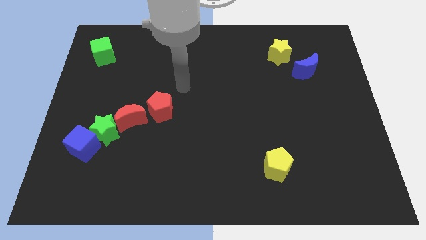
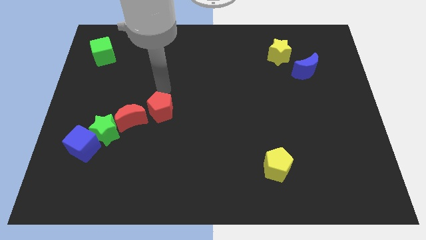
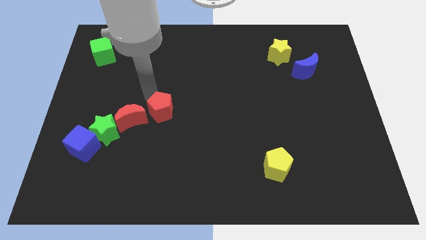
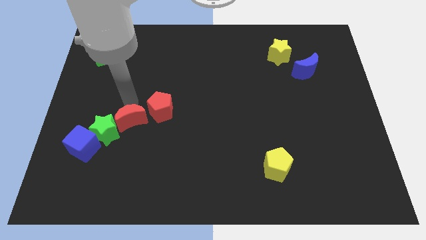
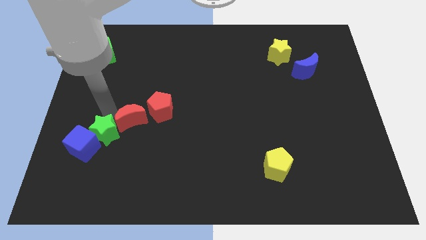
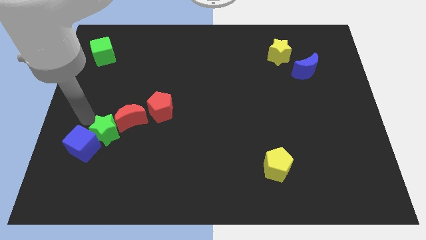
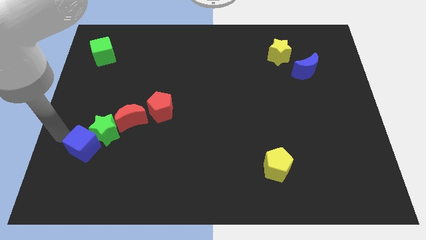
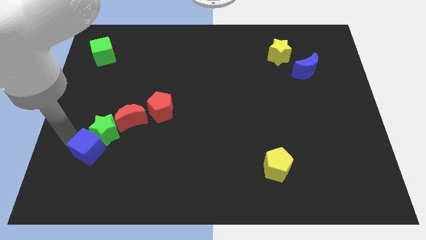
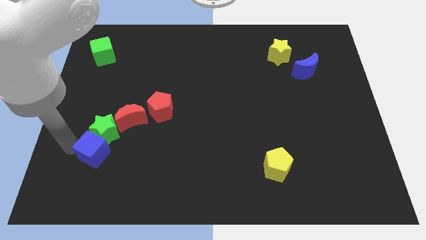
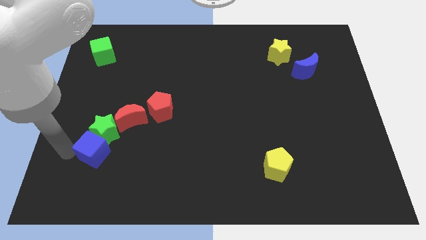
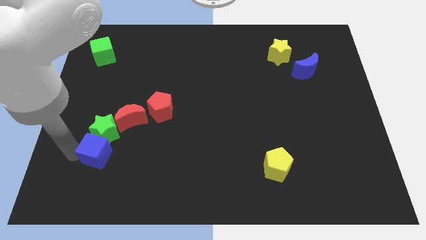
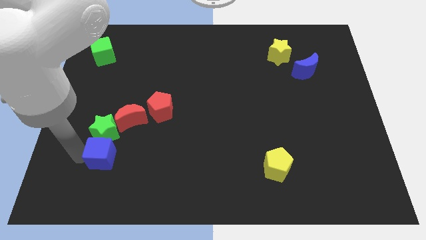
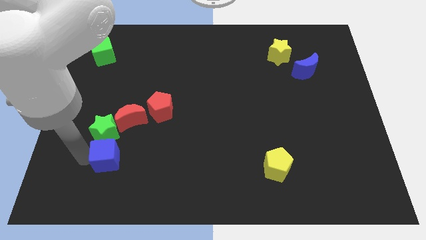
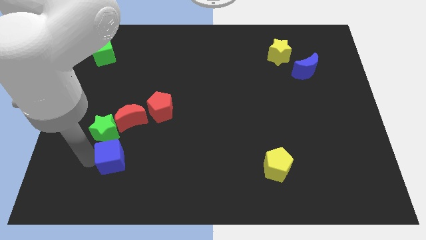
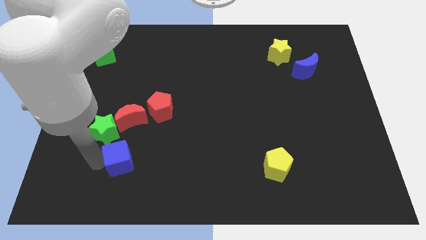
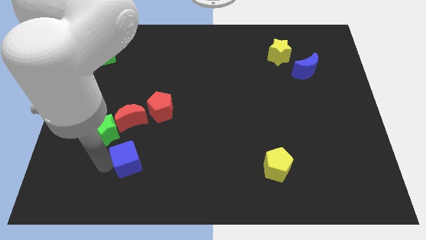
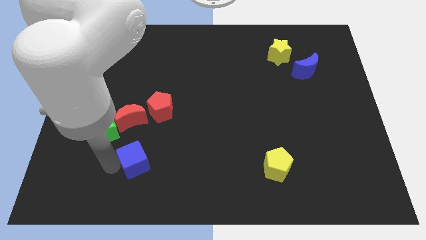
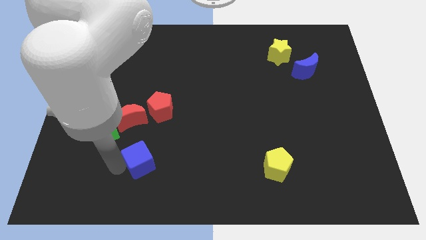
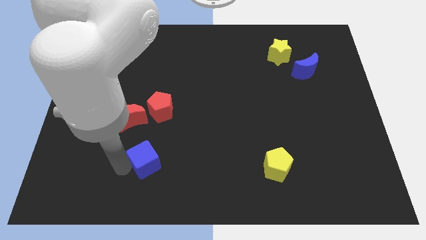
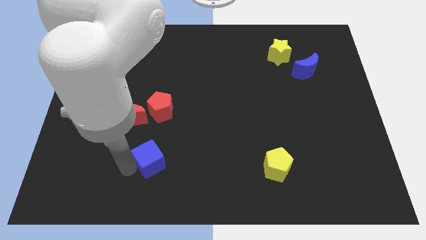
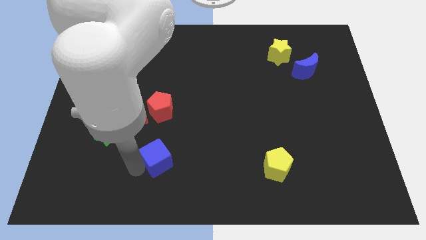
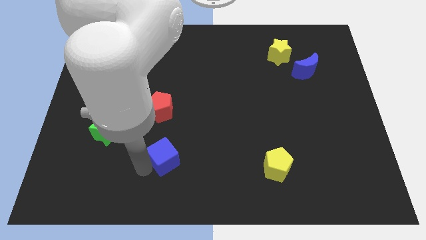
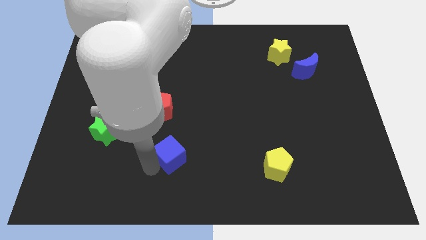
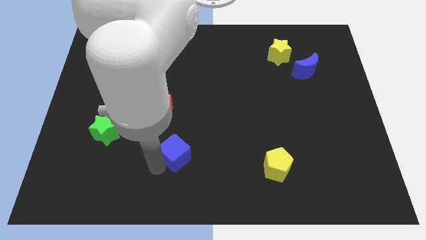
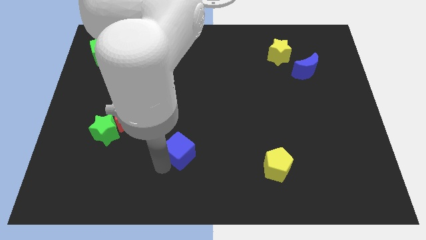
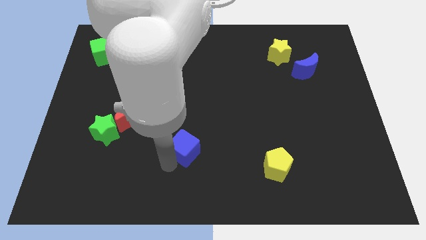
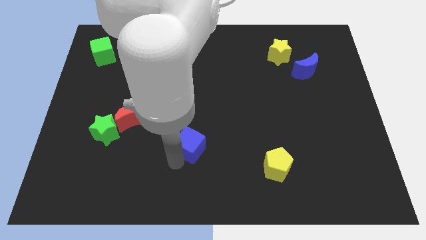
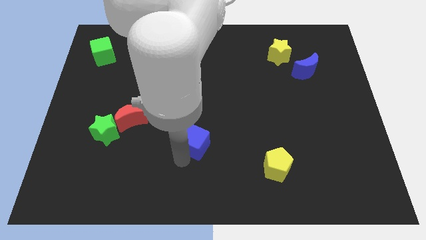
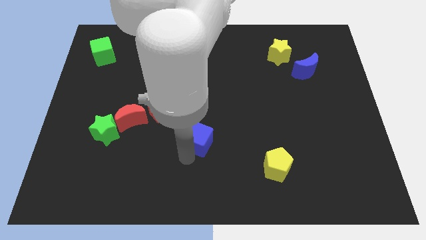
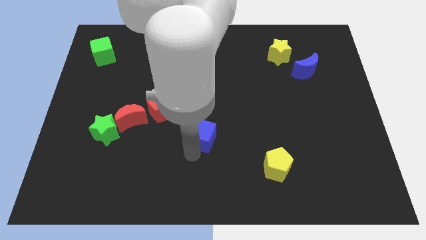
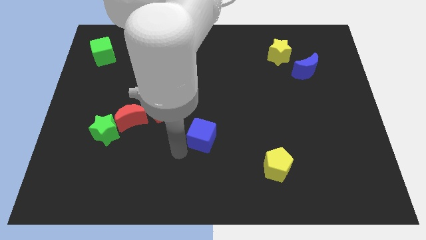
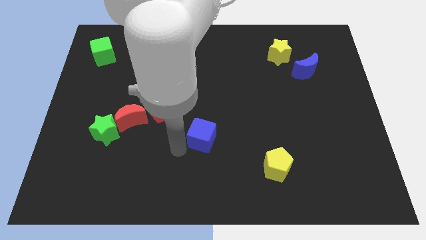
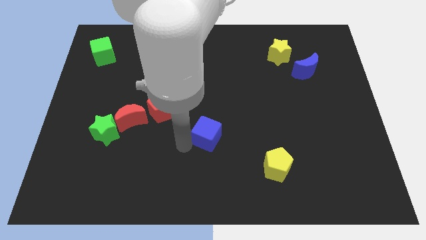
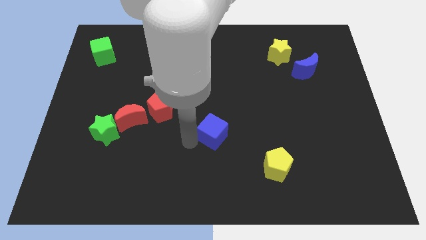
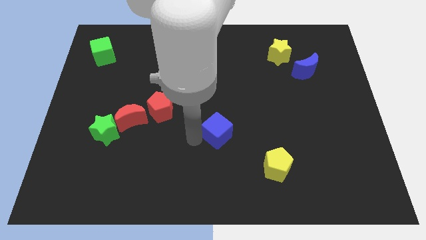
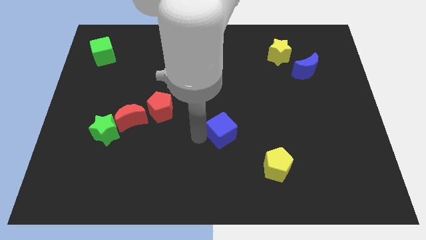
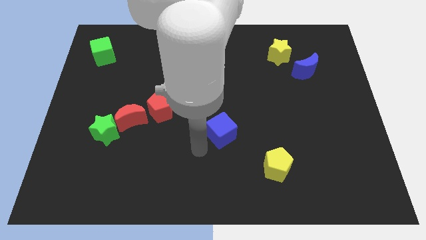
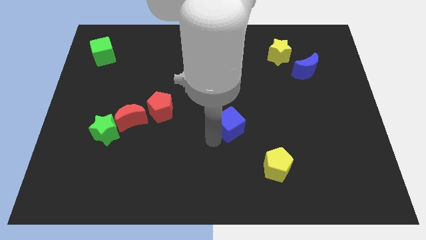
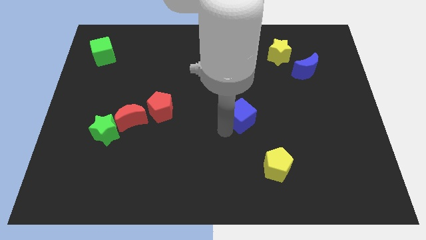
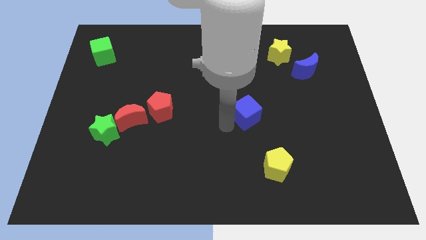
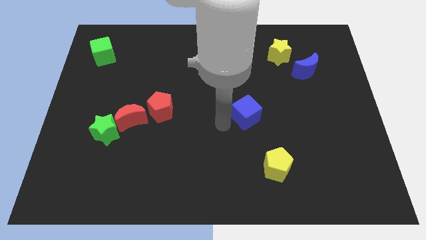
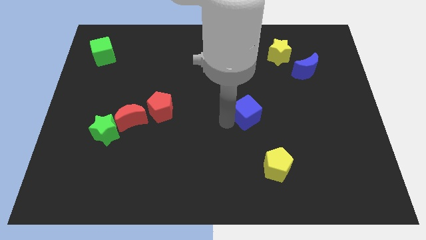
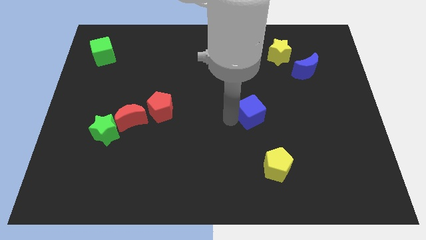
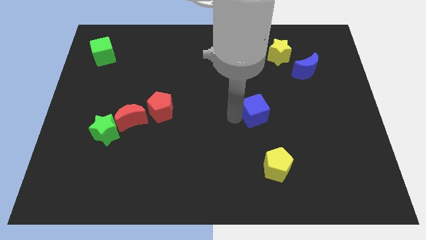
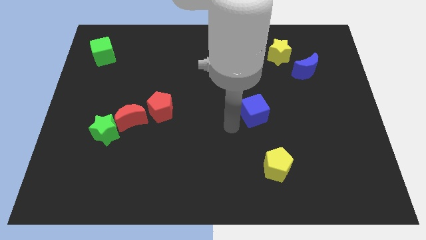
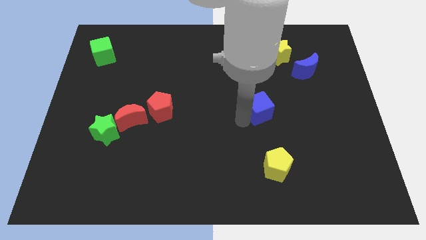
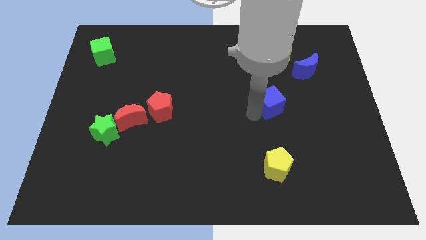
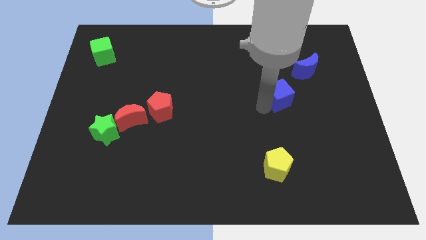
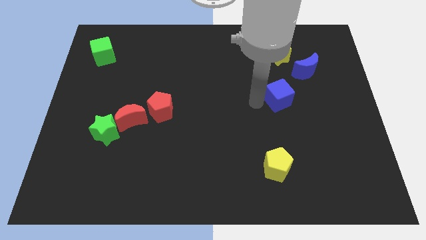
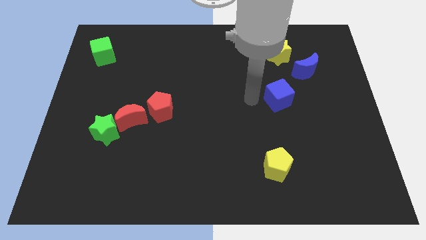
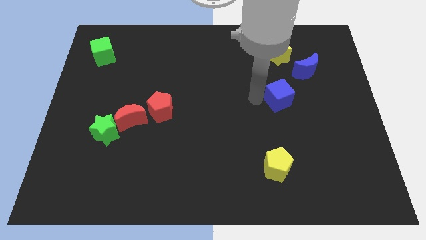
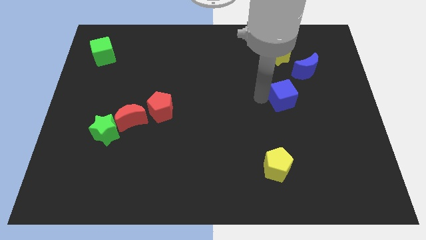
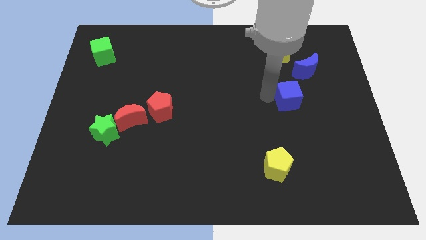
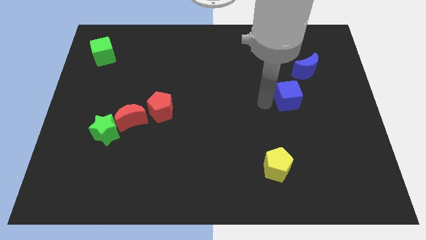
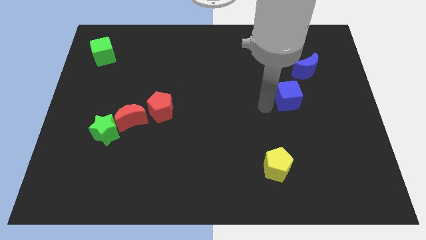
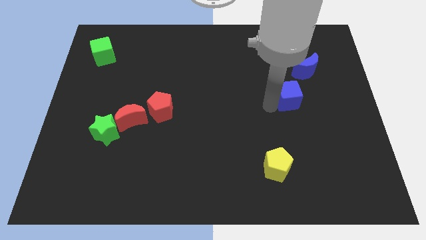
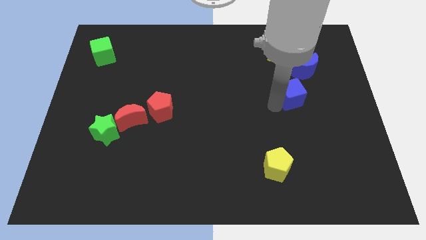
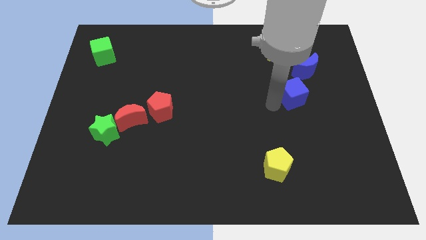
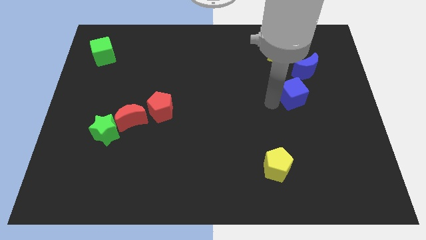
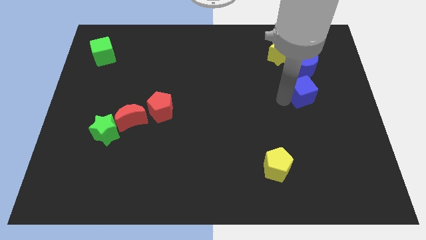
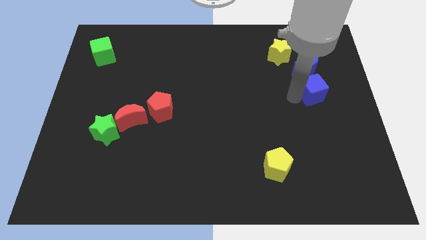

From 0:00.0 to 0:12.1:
move the blue cube to the bottom right of the blue moon
